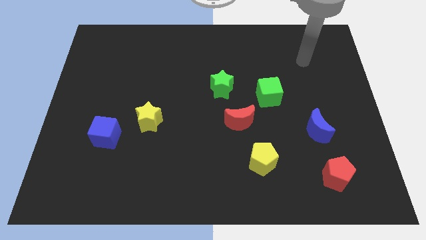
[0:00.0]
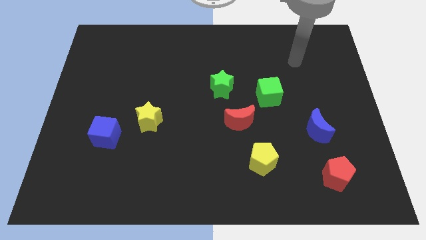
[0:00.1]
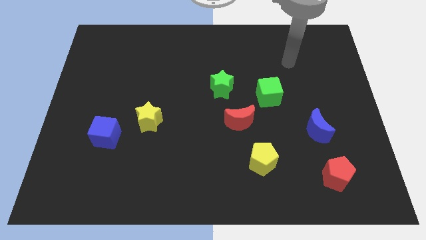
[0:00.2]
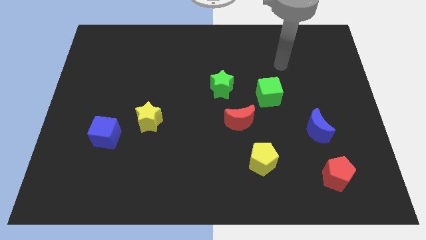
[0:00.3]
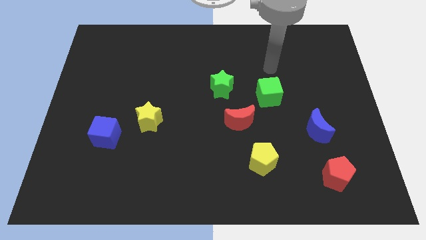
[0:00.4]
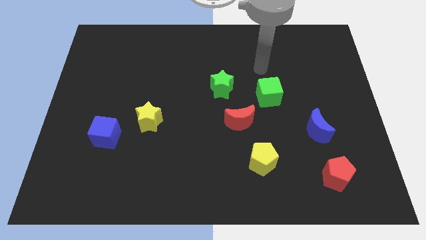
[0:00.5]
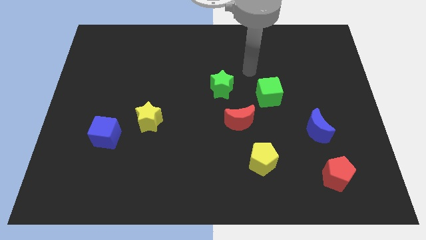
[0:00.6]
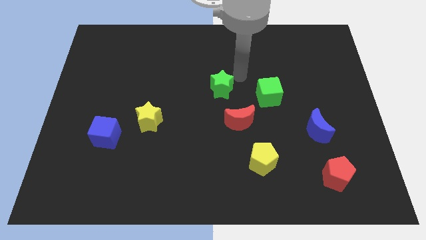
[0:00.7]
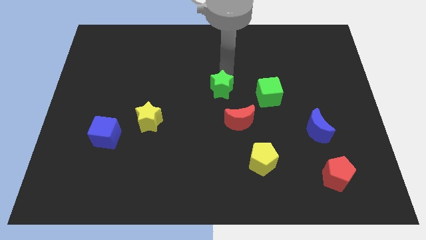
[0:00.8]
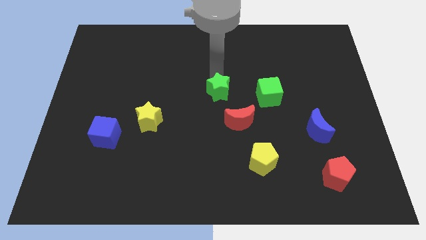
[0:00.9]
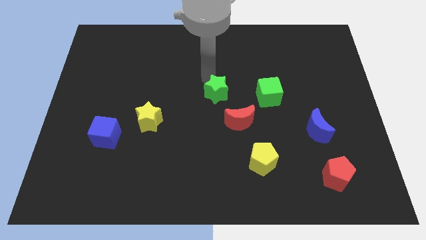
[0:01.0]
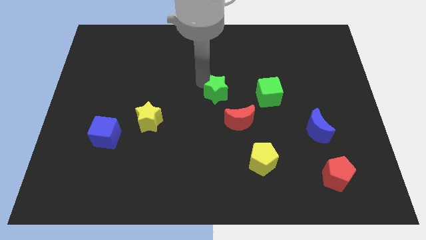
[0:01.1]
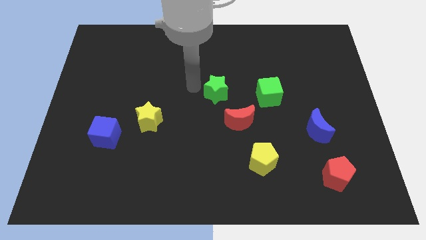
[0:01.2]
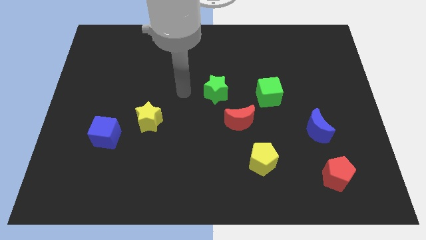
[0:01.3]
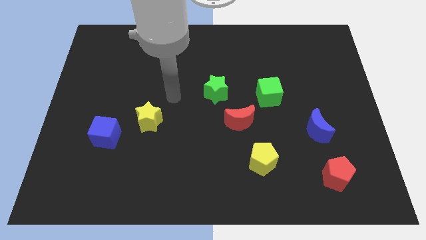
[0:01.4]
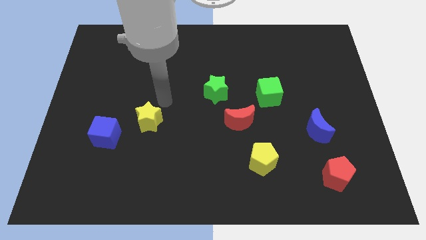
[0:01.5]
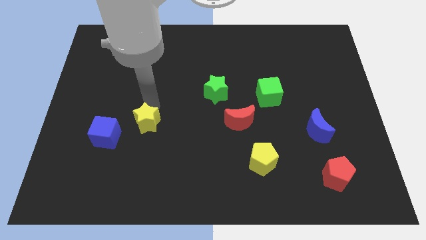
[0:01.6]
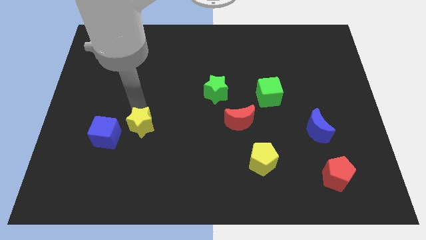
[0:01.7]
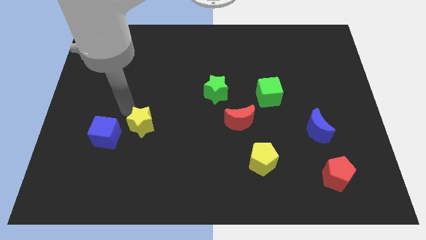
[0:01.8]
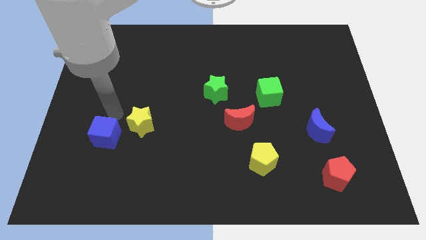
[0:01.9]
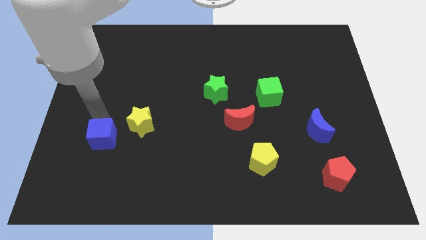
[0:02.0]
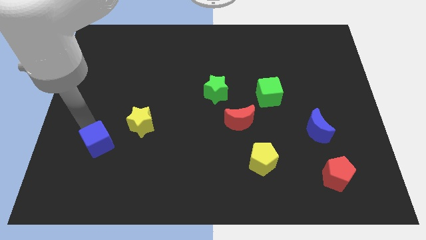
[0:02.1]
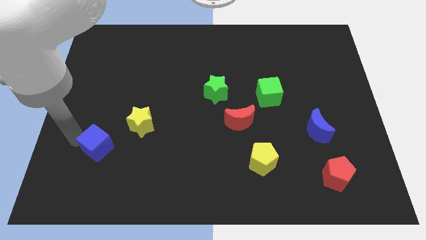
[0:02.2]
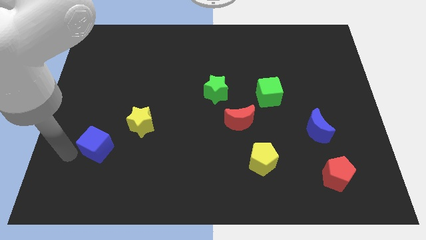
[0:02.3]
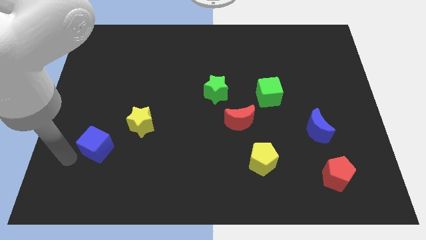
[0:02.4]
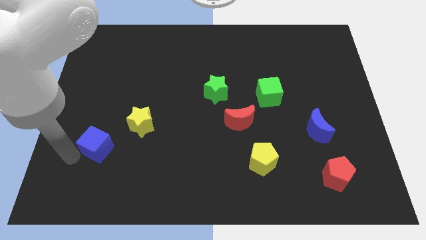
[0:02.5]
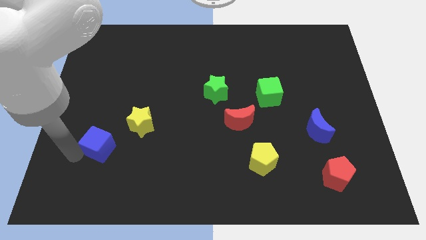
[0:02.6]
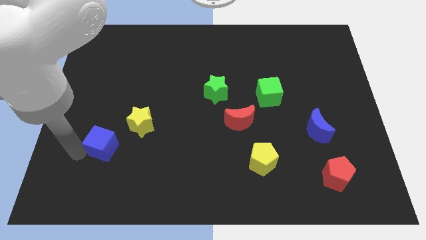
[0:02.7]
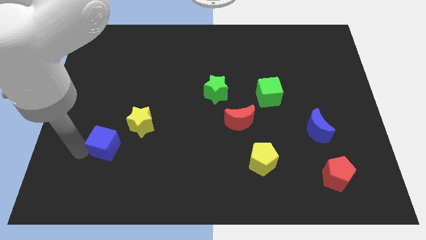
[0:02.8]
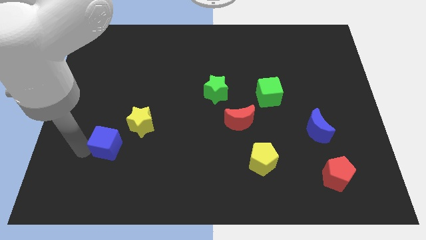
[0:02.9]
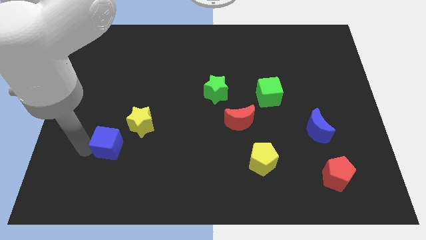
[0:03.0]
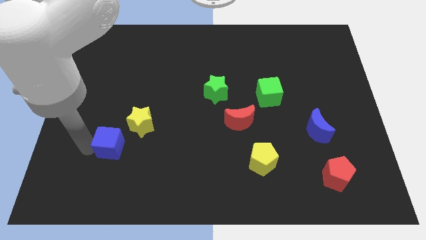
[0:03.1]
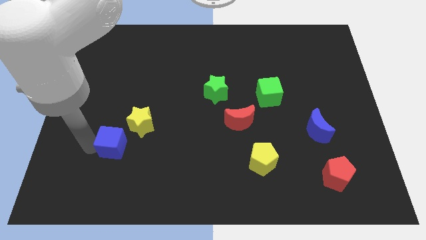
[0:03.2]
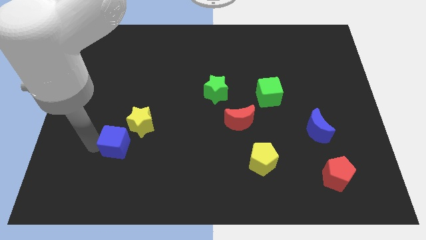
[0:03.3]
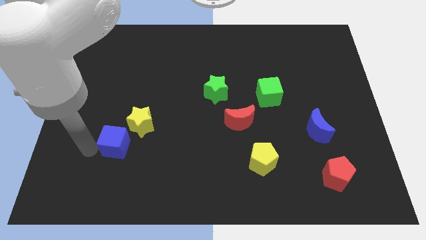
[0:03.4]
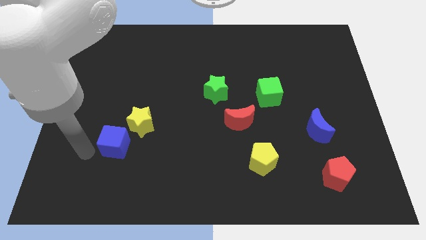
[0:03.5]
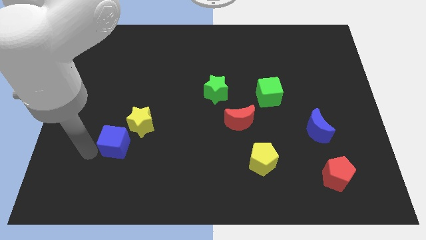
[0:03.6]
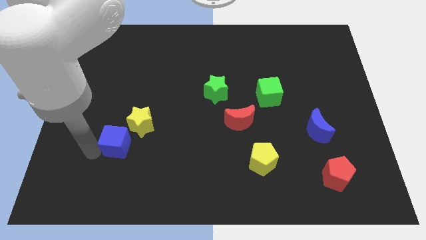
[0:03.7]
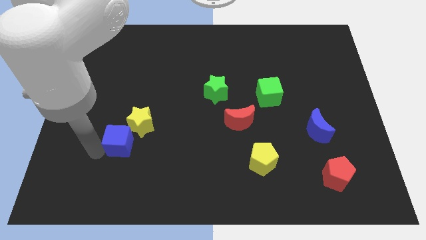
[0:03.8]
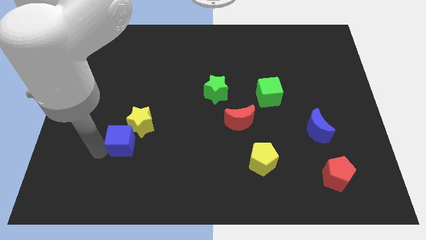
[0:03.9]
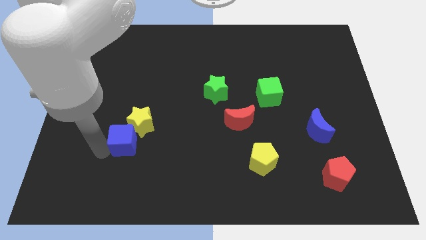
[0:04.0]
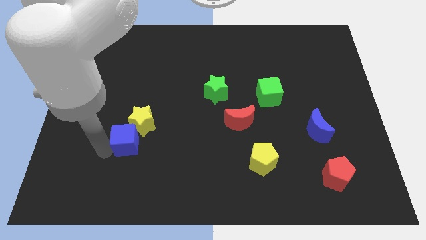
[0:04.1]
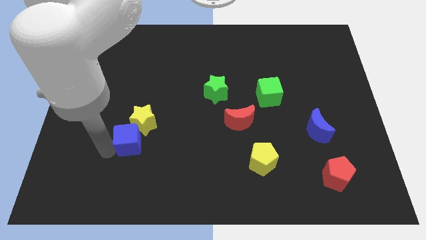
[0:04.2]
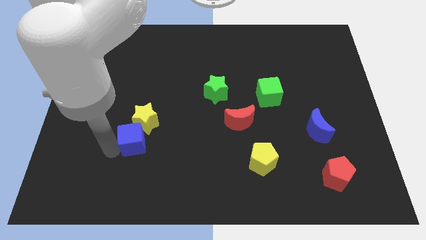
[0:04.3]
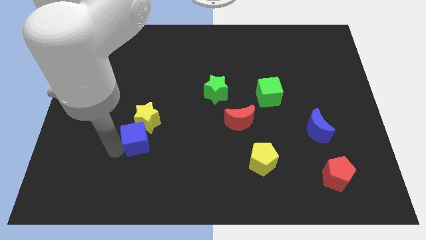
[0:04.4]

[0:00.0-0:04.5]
slightly push the blue cube right

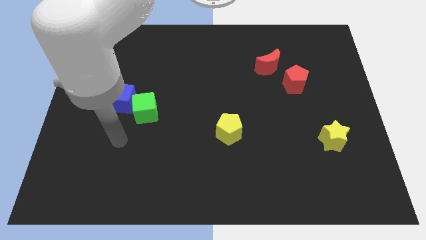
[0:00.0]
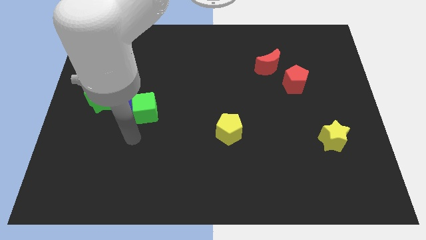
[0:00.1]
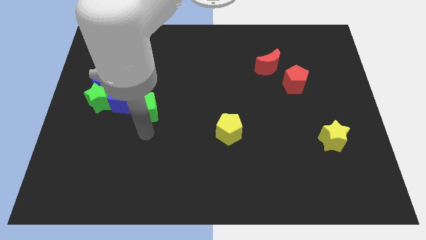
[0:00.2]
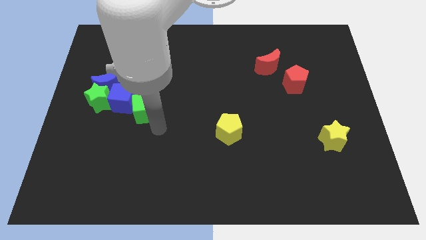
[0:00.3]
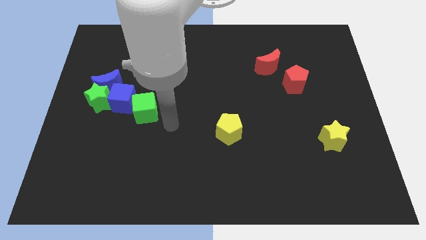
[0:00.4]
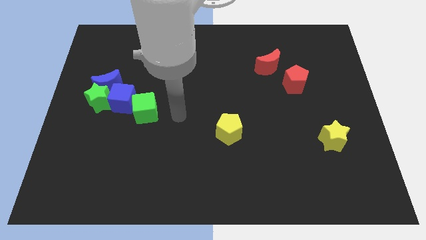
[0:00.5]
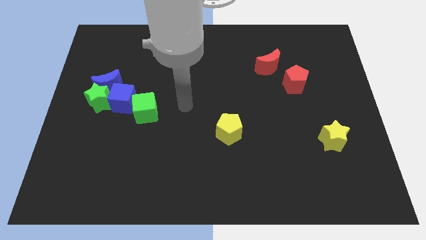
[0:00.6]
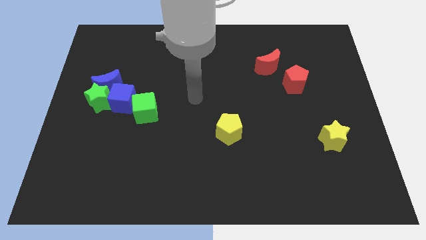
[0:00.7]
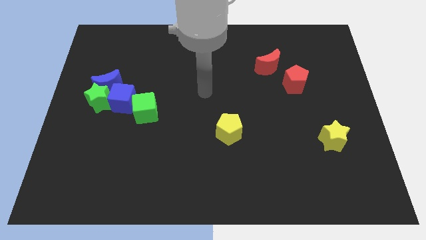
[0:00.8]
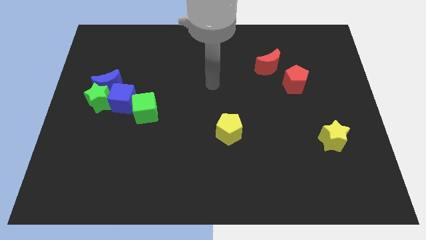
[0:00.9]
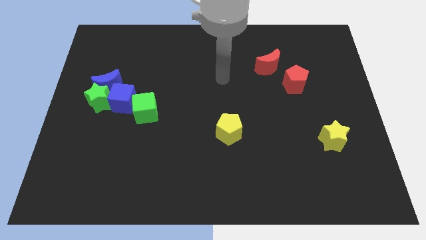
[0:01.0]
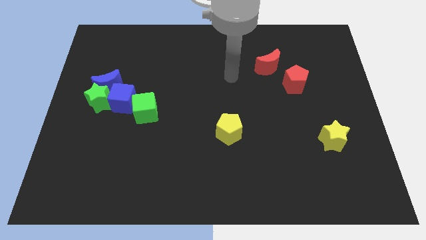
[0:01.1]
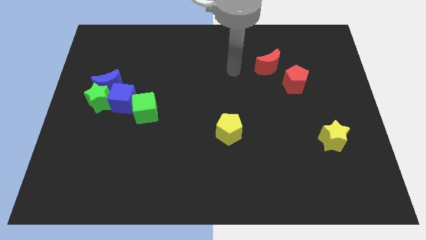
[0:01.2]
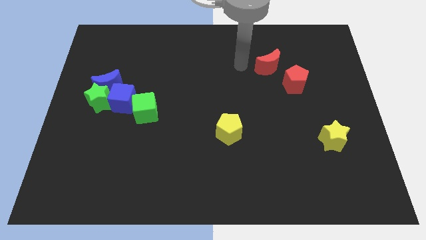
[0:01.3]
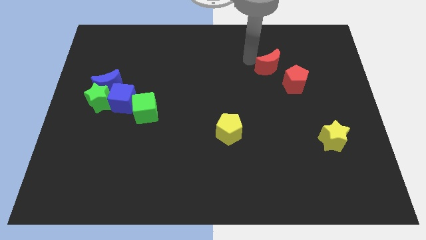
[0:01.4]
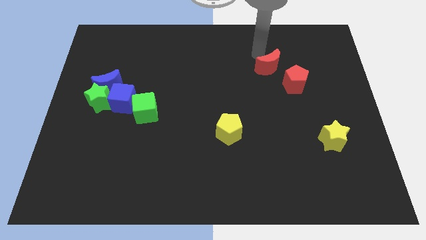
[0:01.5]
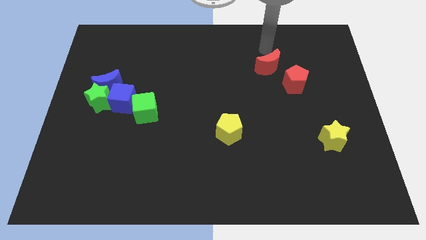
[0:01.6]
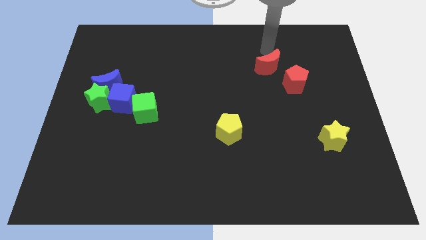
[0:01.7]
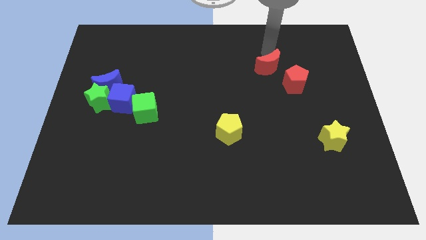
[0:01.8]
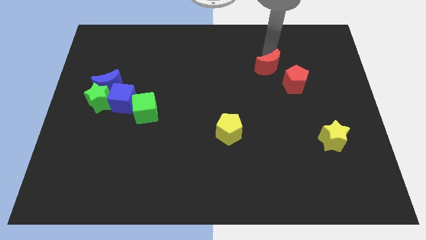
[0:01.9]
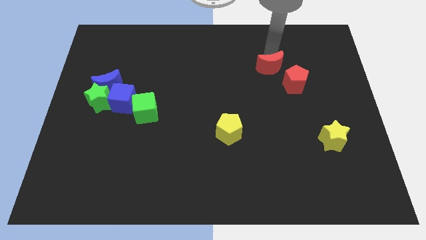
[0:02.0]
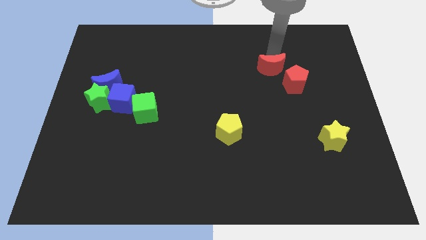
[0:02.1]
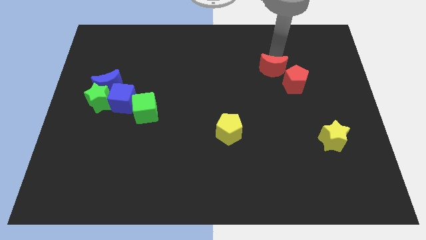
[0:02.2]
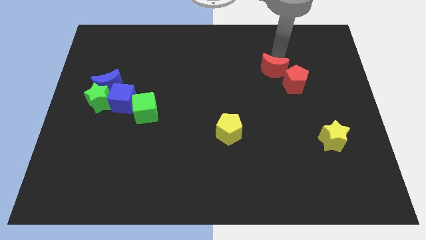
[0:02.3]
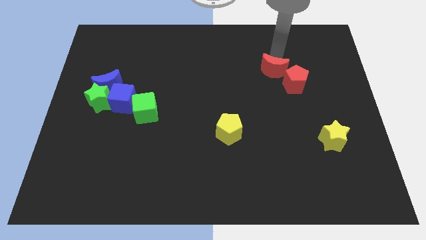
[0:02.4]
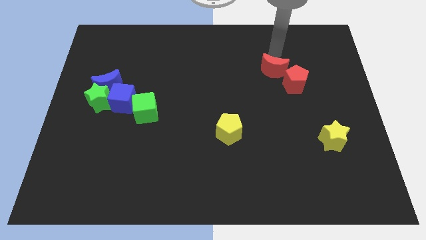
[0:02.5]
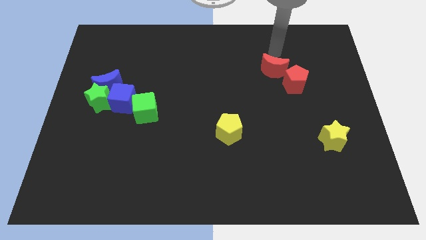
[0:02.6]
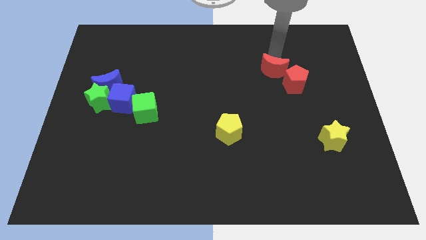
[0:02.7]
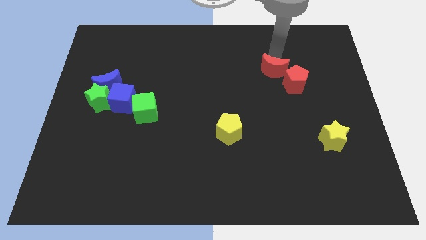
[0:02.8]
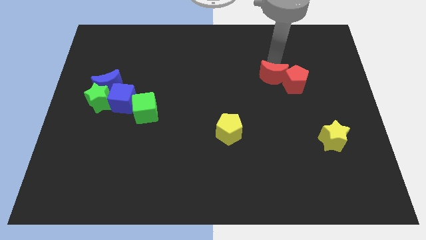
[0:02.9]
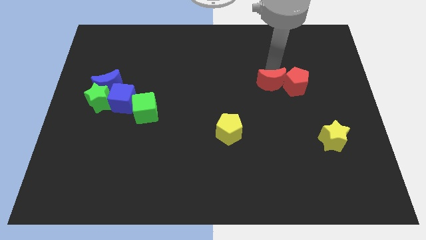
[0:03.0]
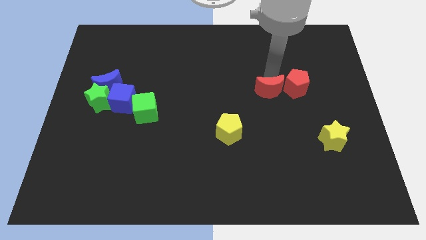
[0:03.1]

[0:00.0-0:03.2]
slightly push the red moon downwards
